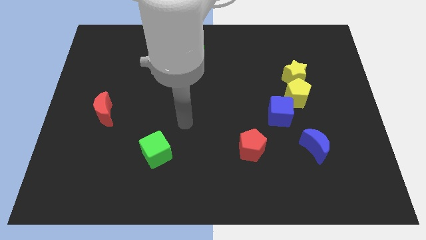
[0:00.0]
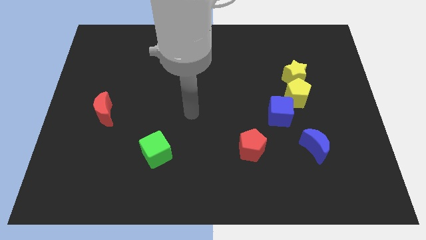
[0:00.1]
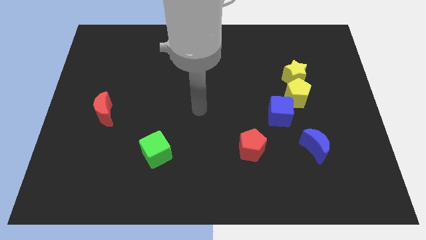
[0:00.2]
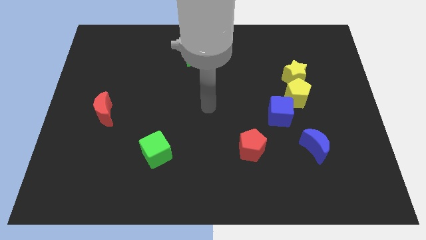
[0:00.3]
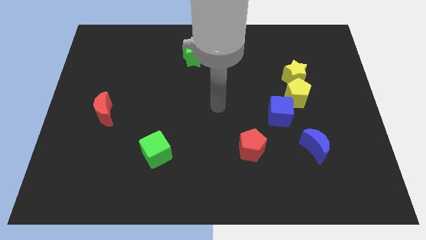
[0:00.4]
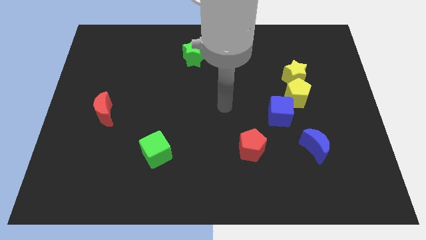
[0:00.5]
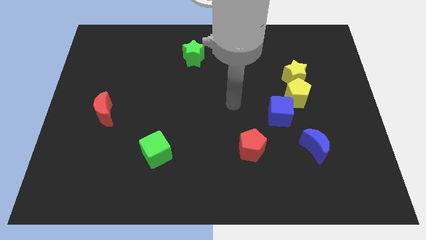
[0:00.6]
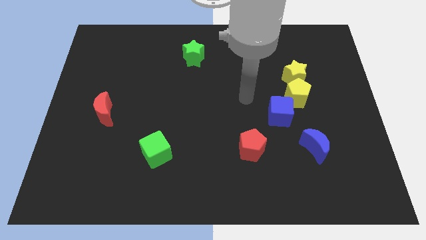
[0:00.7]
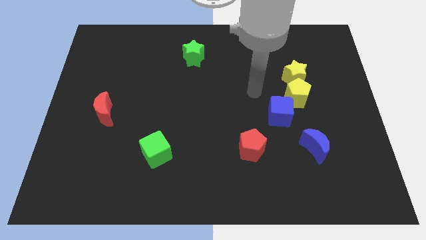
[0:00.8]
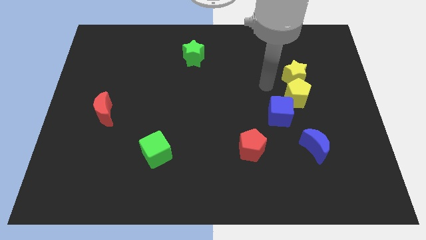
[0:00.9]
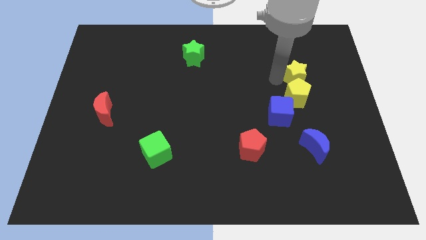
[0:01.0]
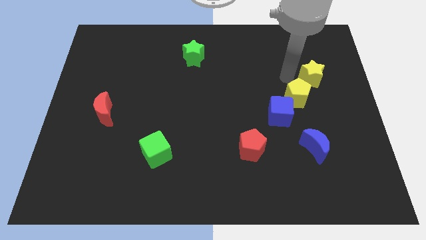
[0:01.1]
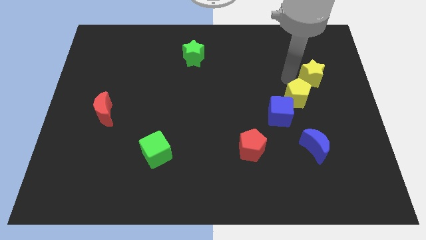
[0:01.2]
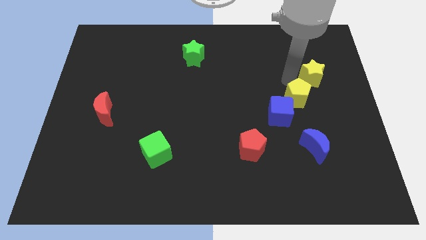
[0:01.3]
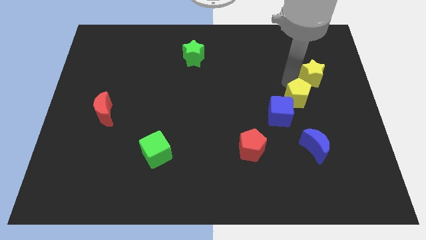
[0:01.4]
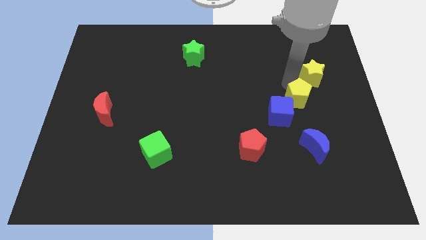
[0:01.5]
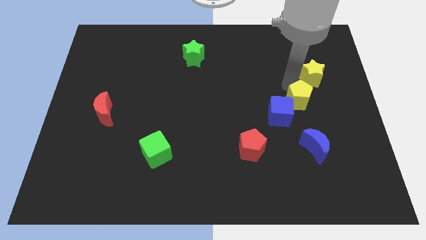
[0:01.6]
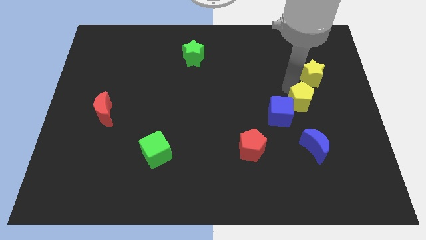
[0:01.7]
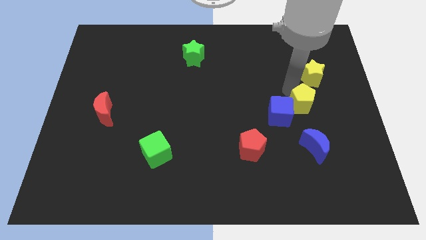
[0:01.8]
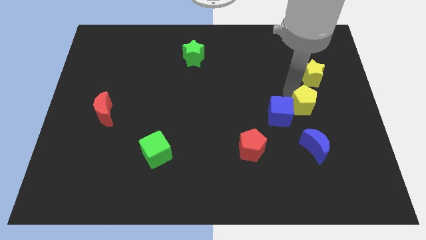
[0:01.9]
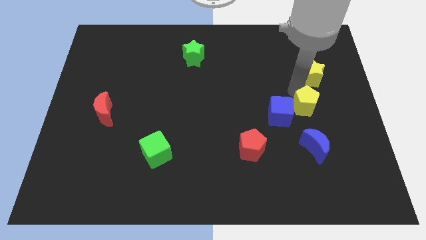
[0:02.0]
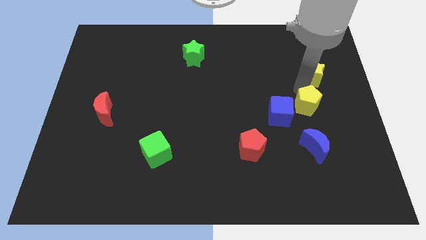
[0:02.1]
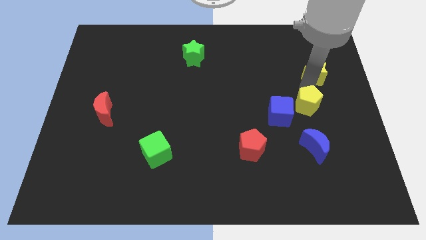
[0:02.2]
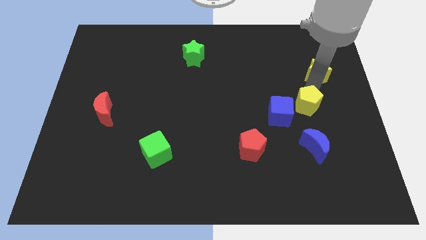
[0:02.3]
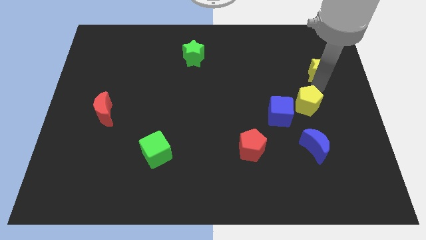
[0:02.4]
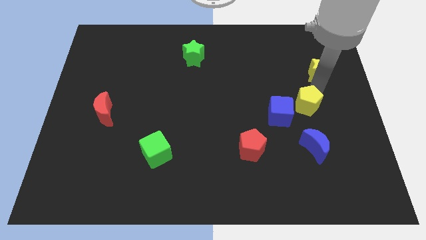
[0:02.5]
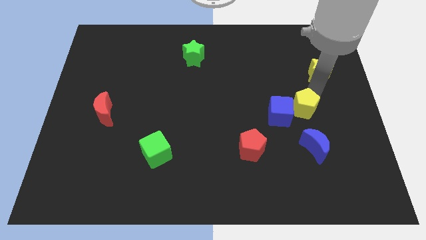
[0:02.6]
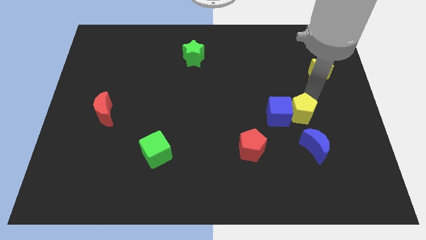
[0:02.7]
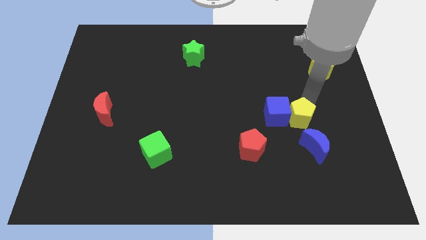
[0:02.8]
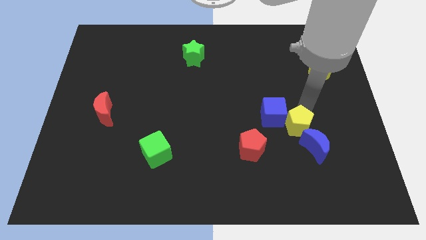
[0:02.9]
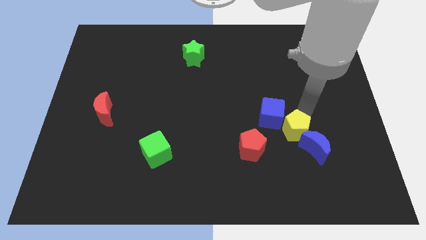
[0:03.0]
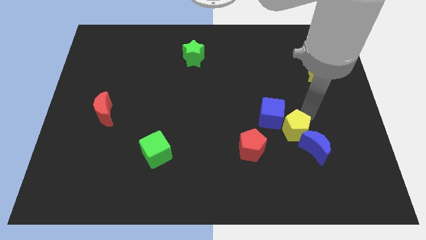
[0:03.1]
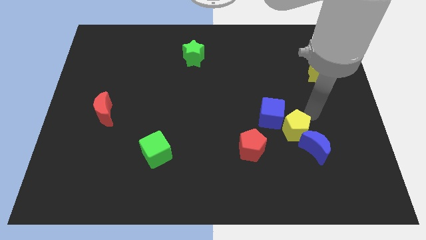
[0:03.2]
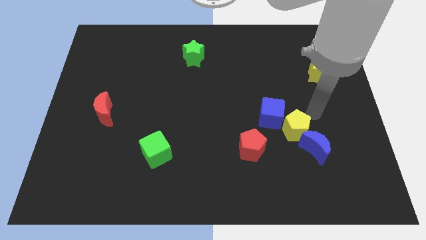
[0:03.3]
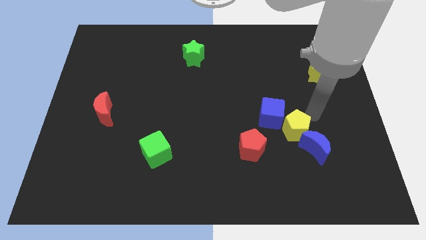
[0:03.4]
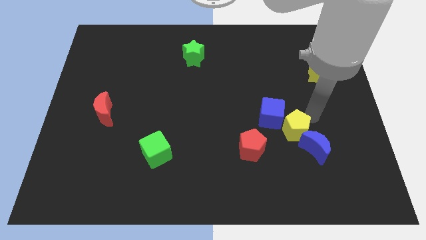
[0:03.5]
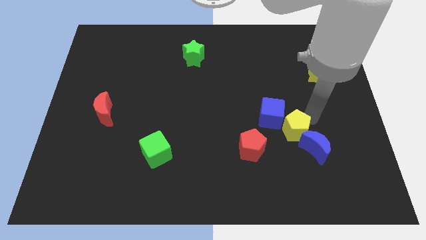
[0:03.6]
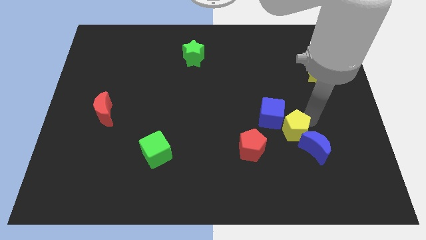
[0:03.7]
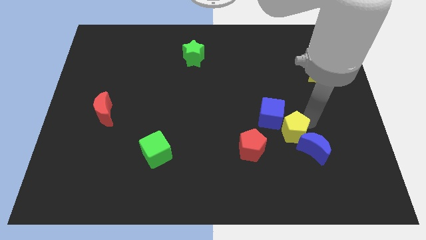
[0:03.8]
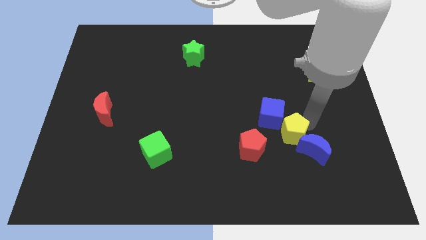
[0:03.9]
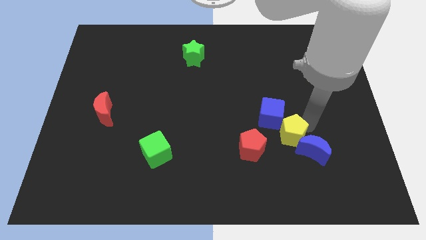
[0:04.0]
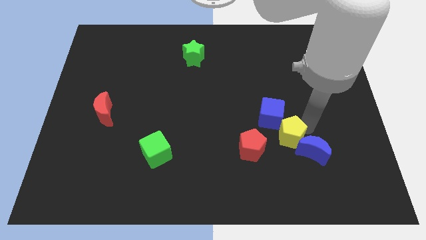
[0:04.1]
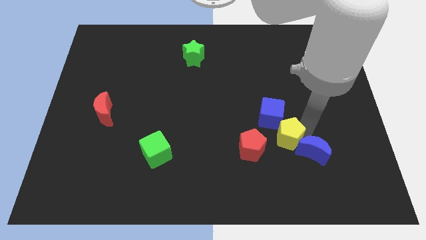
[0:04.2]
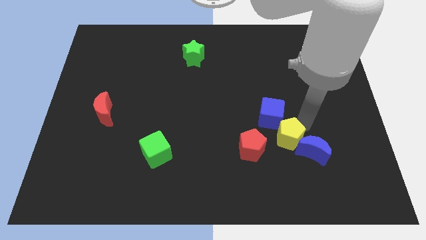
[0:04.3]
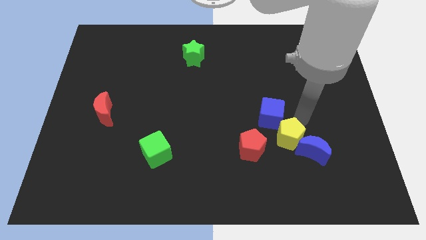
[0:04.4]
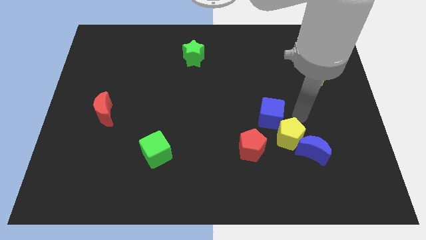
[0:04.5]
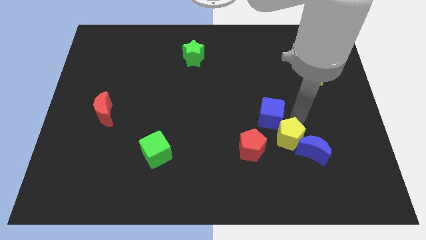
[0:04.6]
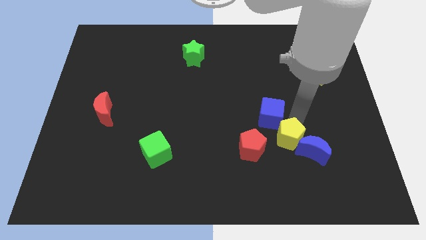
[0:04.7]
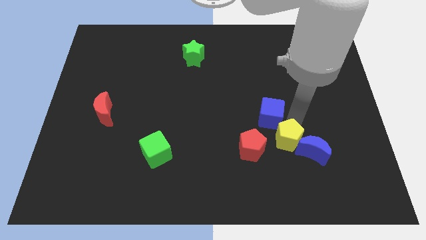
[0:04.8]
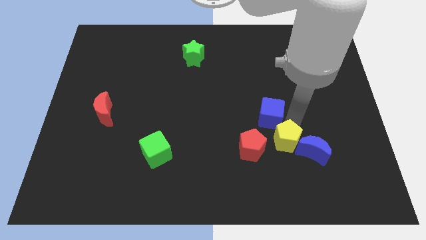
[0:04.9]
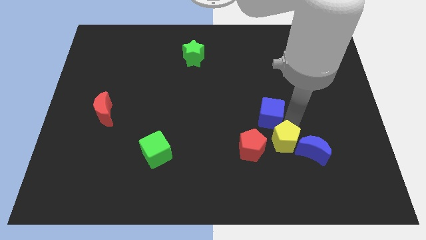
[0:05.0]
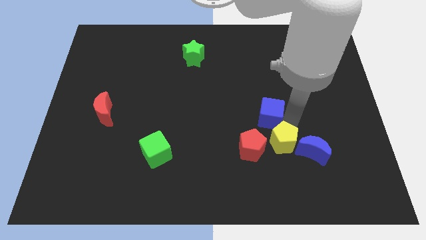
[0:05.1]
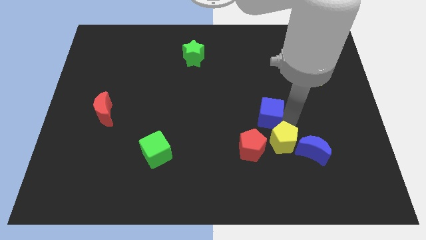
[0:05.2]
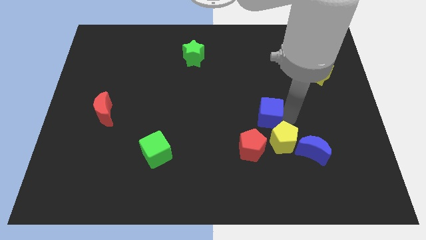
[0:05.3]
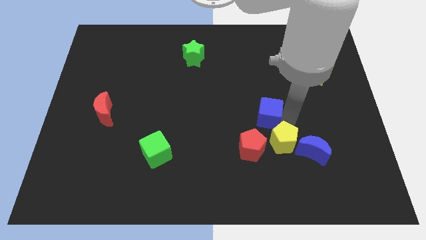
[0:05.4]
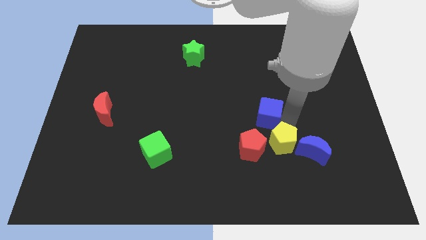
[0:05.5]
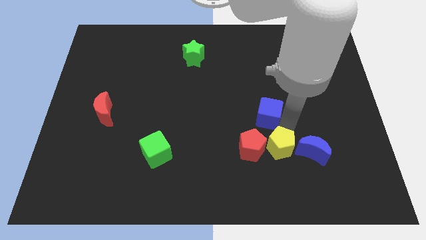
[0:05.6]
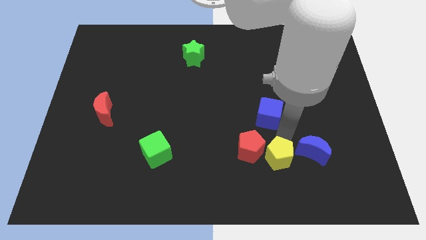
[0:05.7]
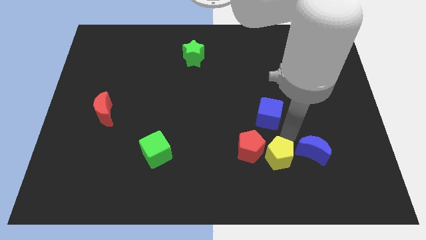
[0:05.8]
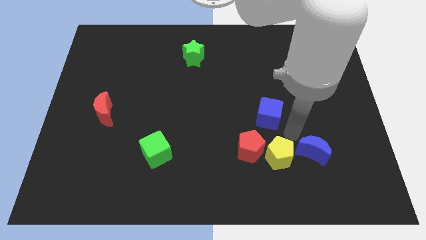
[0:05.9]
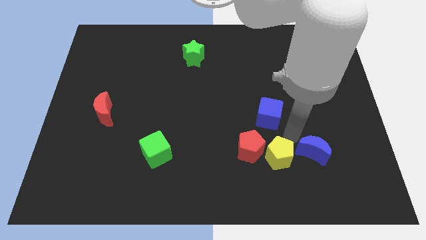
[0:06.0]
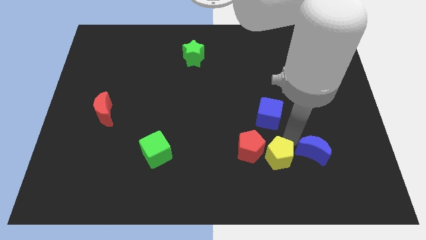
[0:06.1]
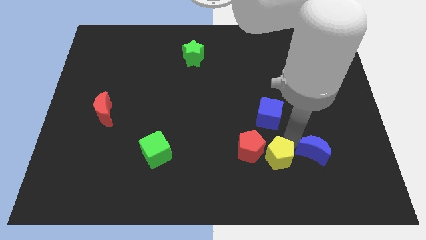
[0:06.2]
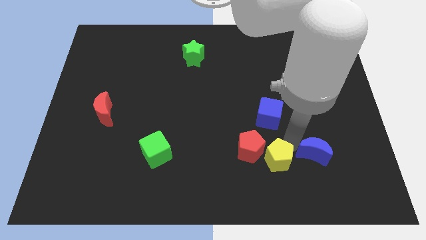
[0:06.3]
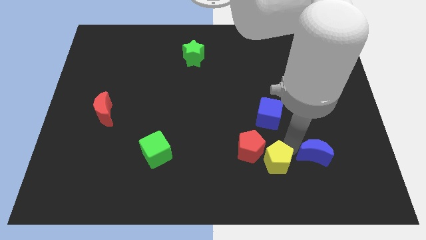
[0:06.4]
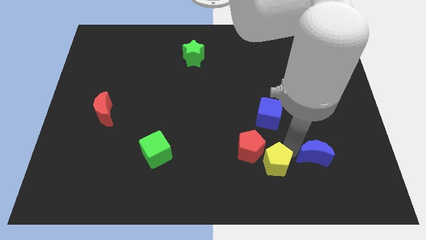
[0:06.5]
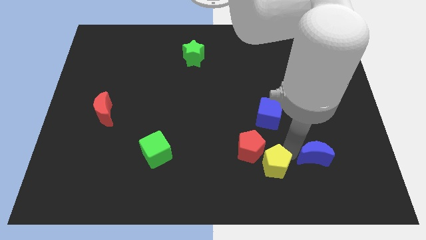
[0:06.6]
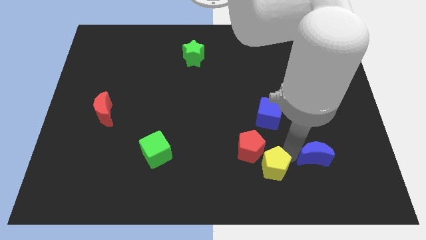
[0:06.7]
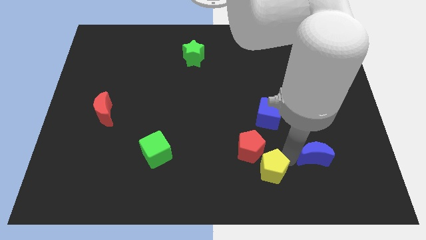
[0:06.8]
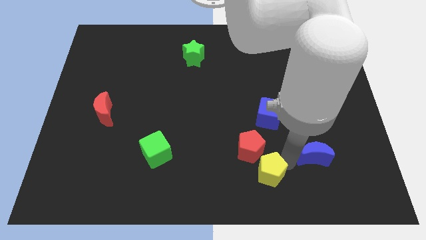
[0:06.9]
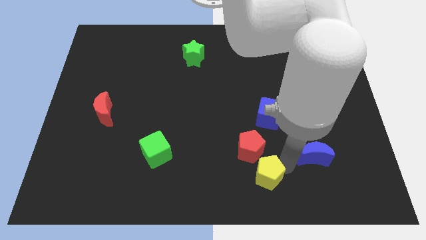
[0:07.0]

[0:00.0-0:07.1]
push the yellow pentagon to the bottom
